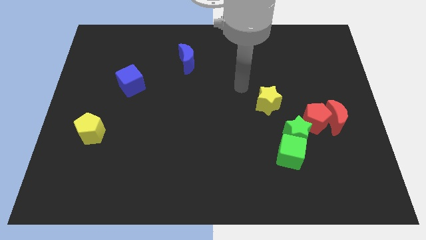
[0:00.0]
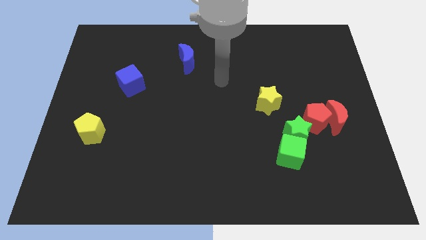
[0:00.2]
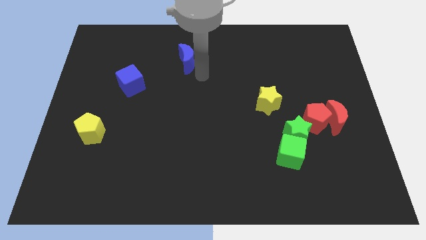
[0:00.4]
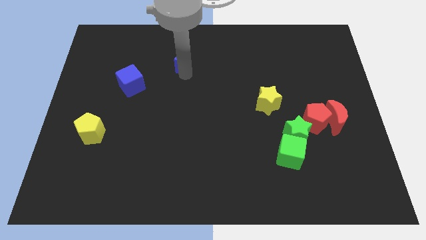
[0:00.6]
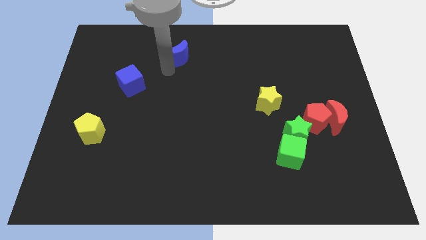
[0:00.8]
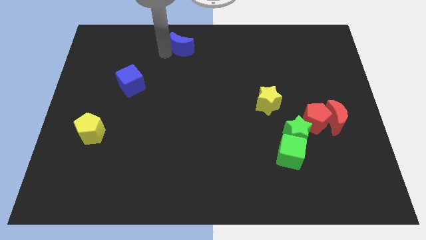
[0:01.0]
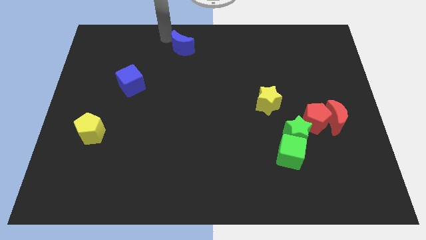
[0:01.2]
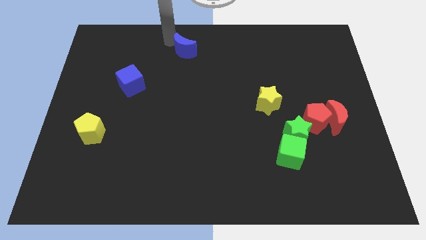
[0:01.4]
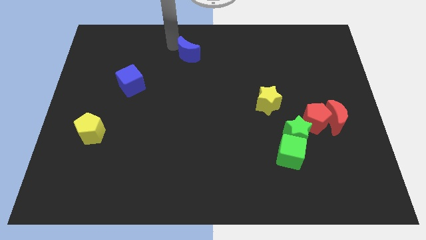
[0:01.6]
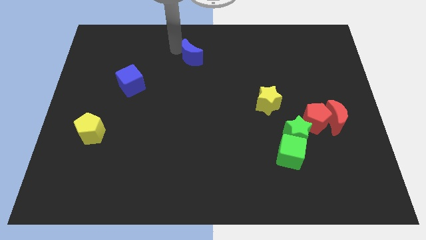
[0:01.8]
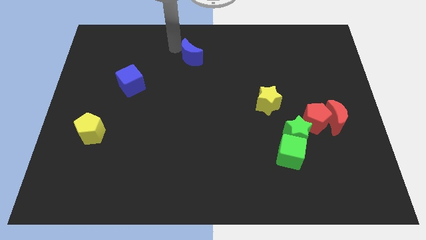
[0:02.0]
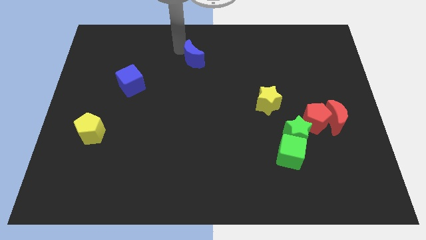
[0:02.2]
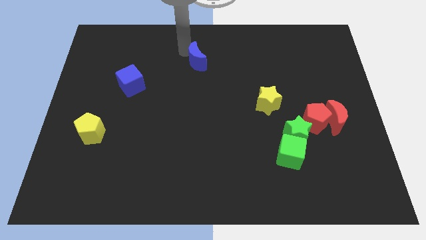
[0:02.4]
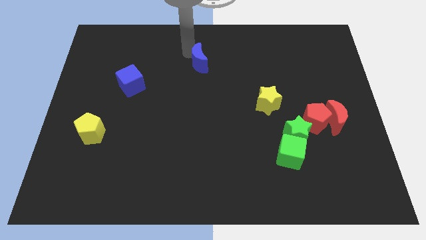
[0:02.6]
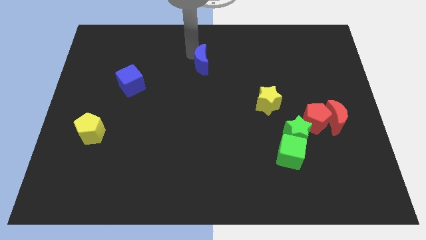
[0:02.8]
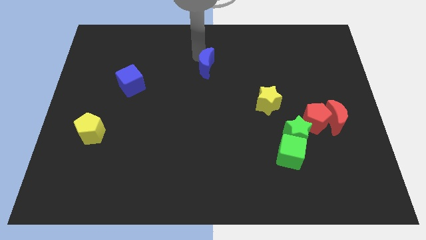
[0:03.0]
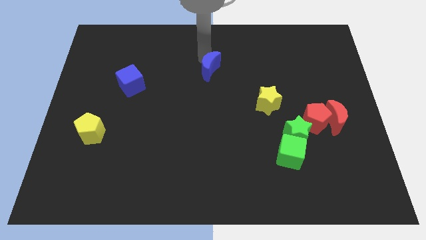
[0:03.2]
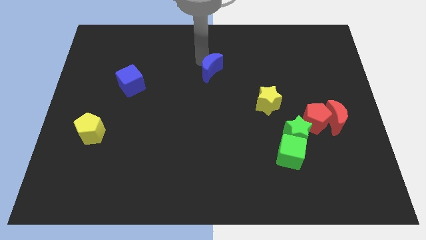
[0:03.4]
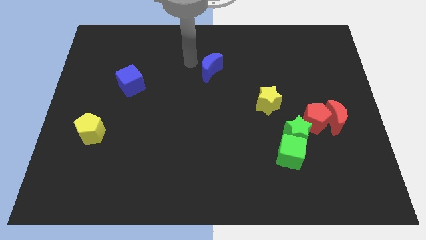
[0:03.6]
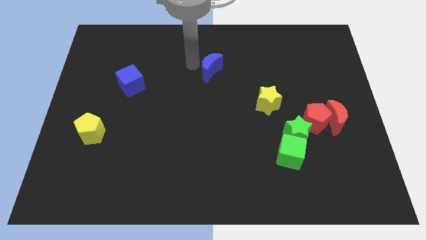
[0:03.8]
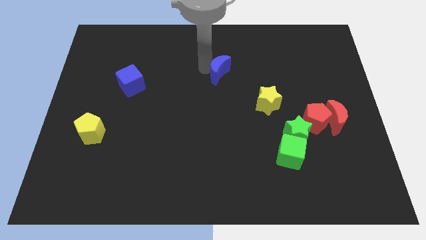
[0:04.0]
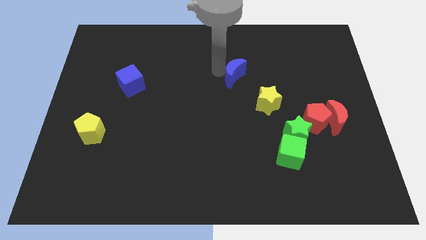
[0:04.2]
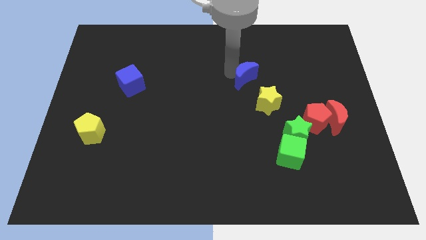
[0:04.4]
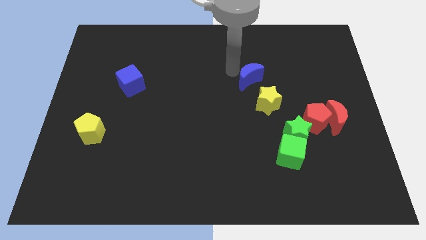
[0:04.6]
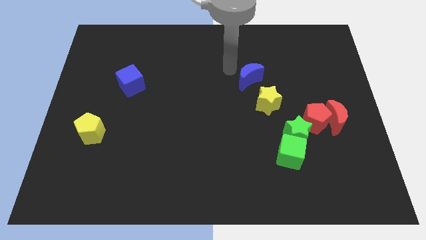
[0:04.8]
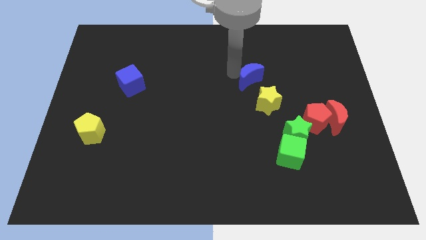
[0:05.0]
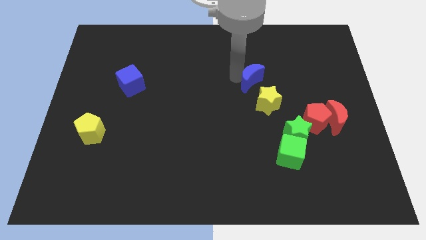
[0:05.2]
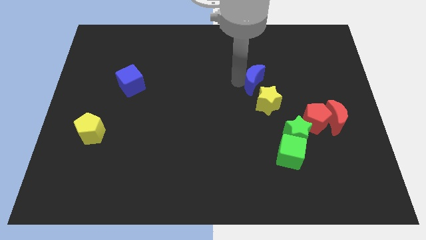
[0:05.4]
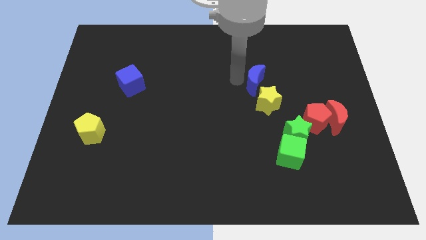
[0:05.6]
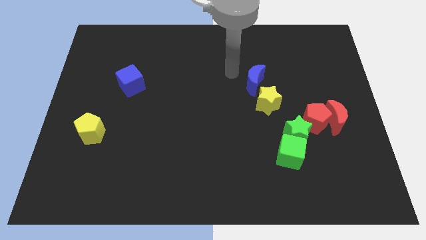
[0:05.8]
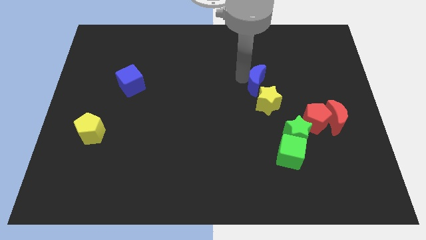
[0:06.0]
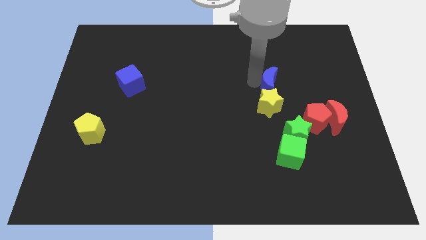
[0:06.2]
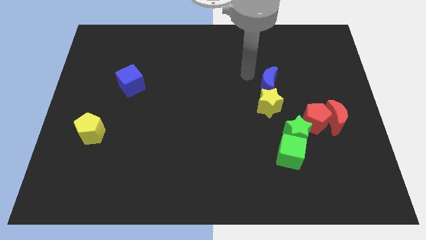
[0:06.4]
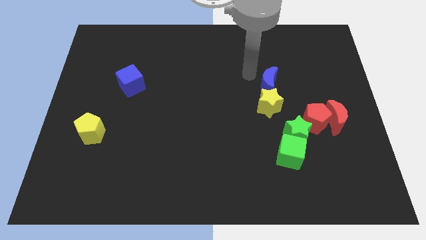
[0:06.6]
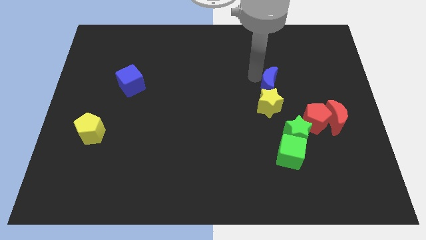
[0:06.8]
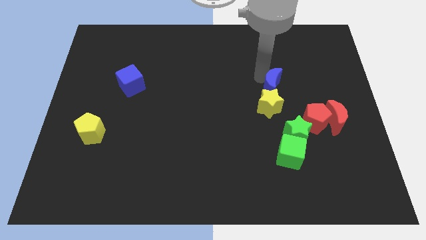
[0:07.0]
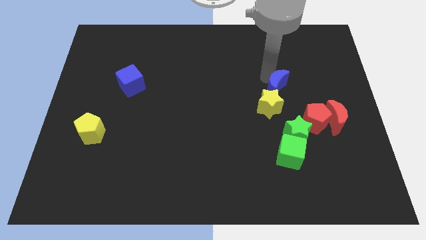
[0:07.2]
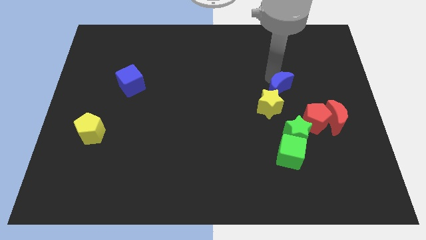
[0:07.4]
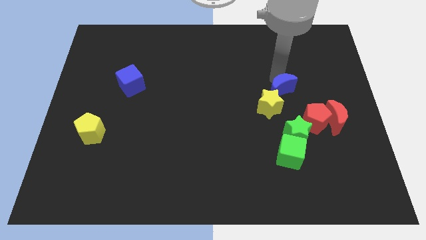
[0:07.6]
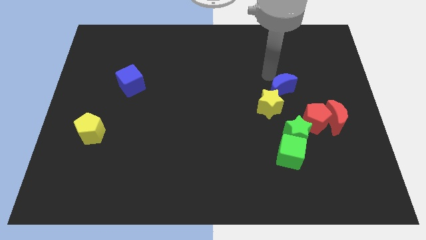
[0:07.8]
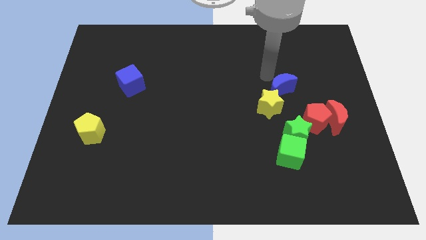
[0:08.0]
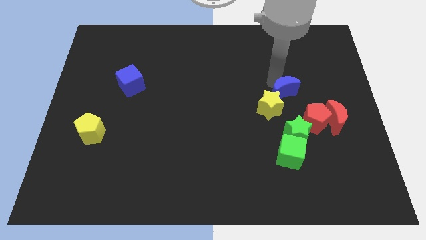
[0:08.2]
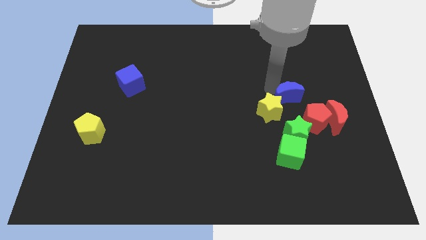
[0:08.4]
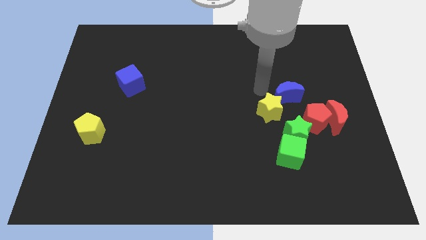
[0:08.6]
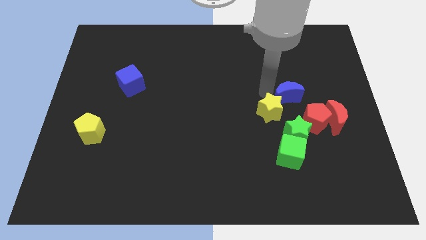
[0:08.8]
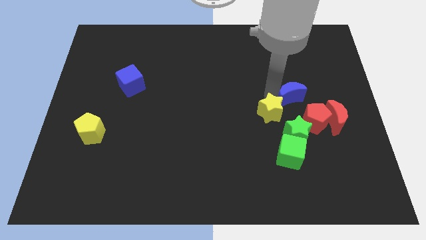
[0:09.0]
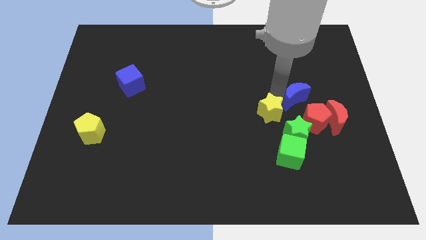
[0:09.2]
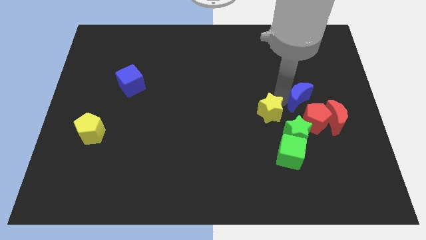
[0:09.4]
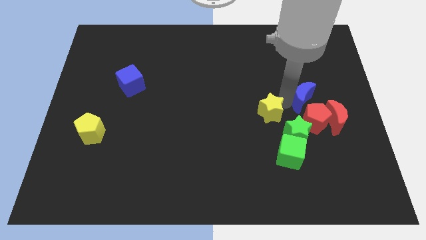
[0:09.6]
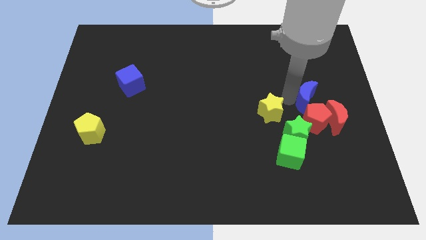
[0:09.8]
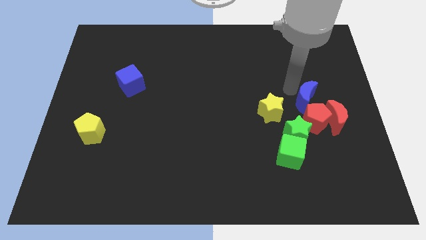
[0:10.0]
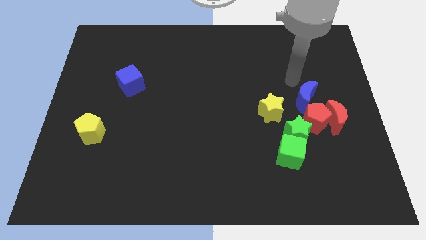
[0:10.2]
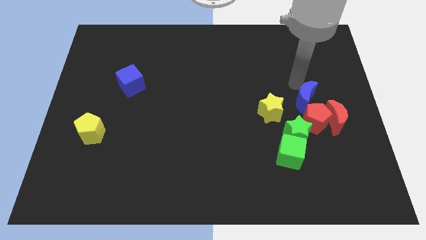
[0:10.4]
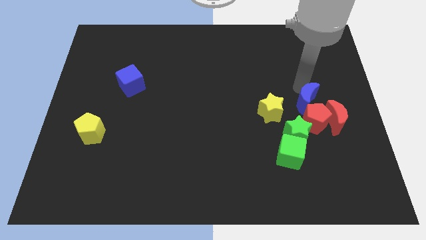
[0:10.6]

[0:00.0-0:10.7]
push the blue moon to the top right side of the green star

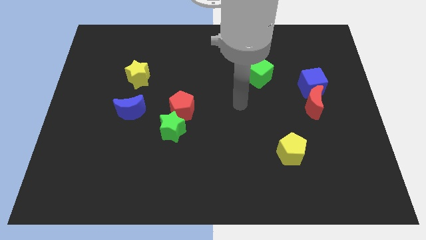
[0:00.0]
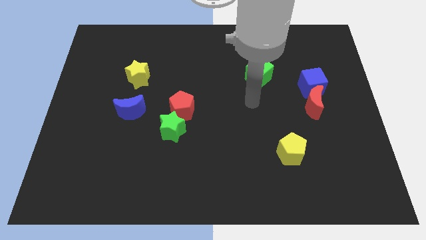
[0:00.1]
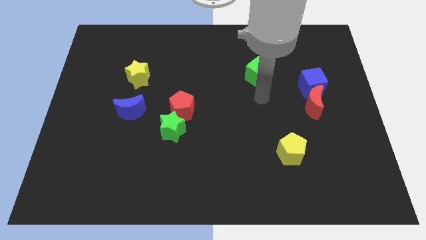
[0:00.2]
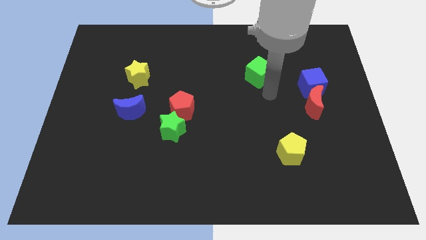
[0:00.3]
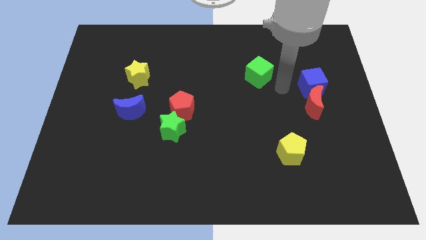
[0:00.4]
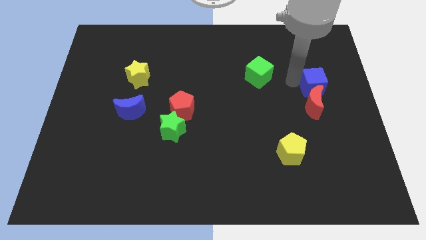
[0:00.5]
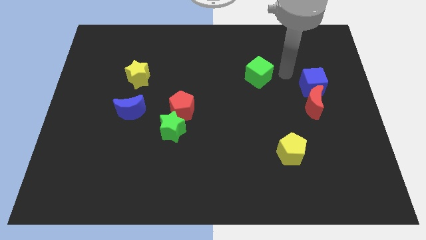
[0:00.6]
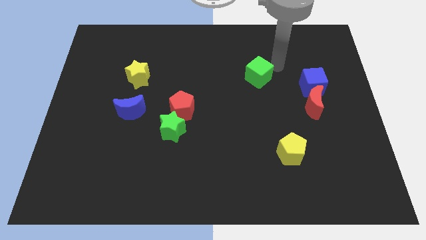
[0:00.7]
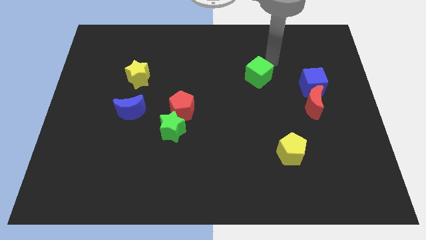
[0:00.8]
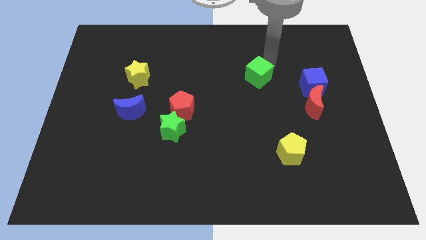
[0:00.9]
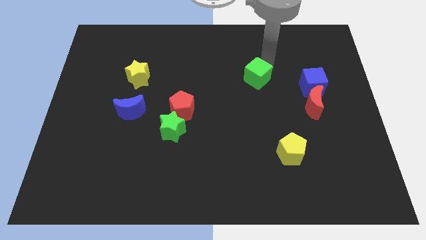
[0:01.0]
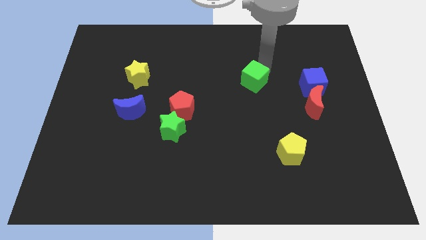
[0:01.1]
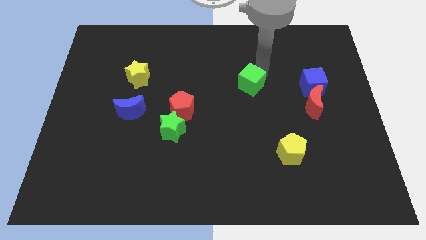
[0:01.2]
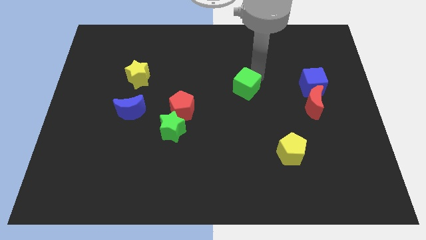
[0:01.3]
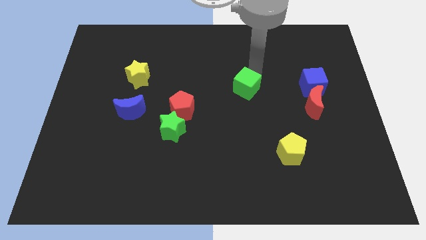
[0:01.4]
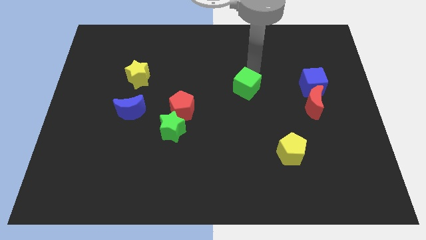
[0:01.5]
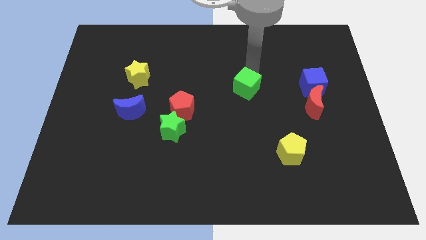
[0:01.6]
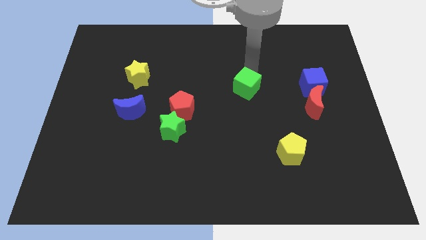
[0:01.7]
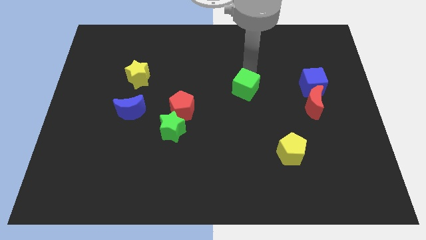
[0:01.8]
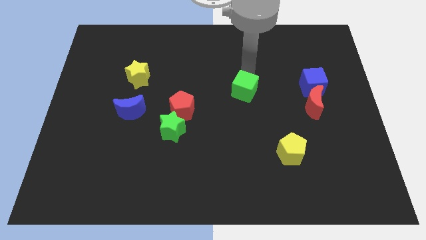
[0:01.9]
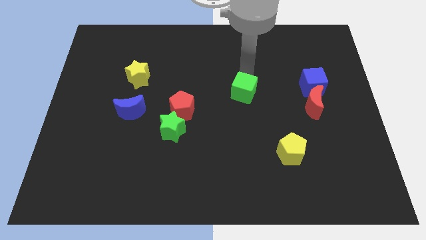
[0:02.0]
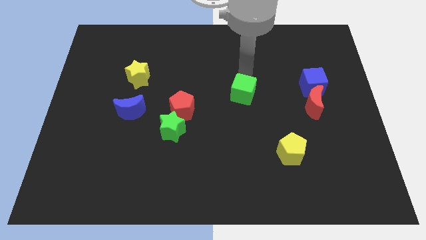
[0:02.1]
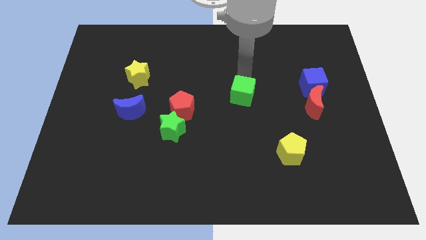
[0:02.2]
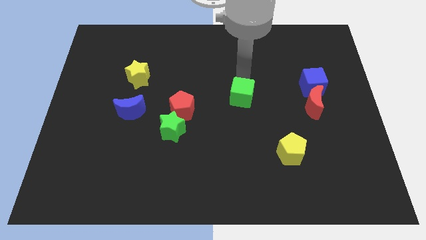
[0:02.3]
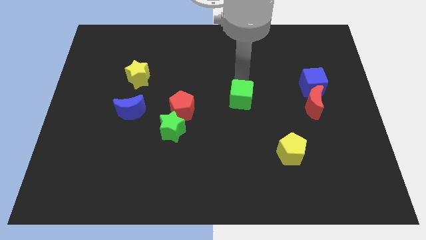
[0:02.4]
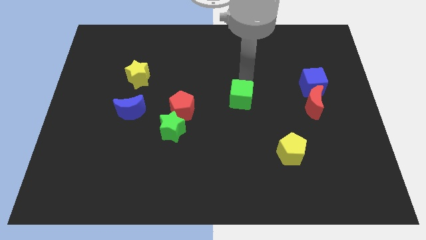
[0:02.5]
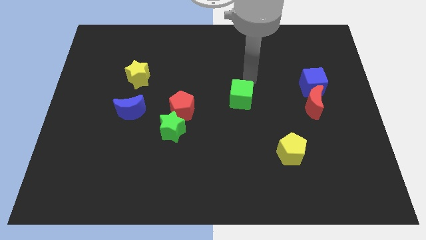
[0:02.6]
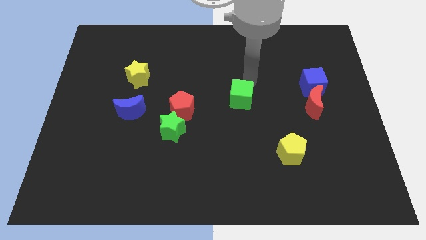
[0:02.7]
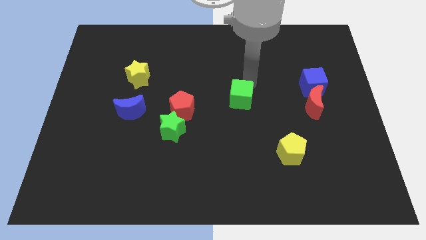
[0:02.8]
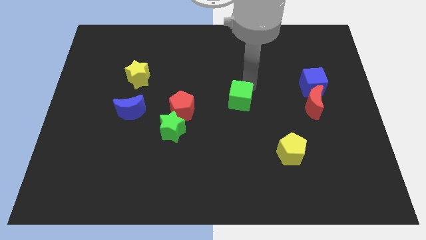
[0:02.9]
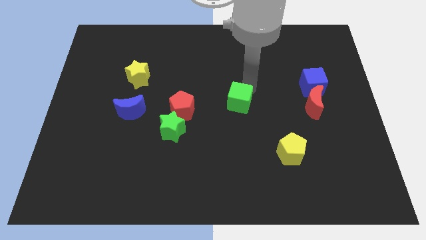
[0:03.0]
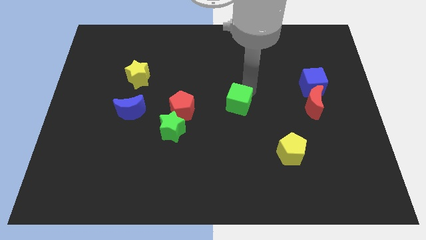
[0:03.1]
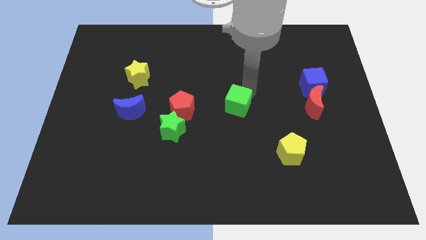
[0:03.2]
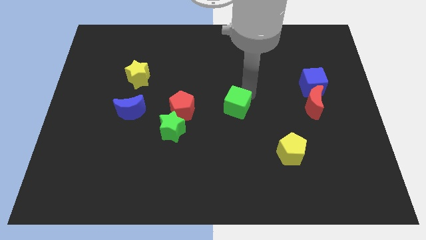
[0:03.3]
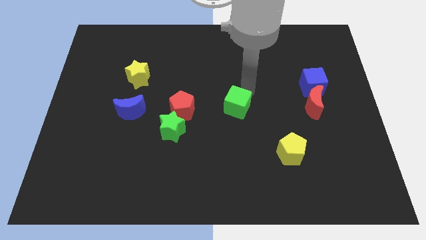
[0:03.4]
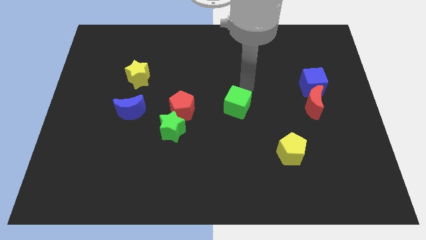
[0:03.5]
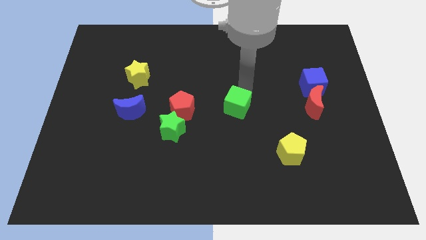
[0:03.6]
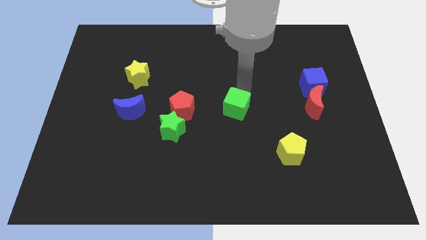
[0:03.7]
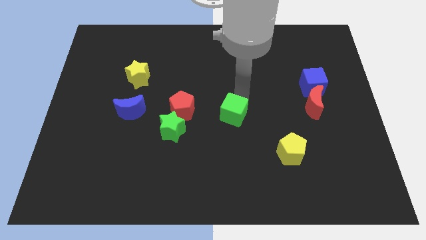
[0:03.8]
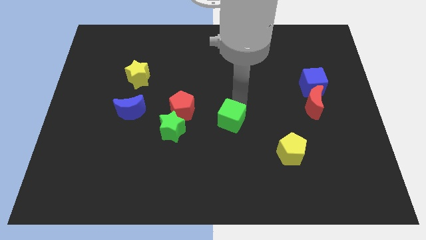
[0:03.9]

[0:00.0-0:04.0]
slide the green cube to the right side of the green star
